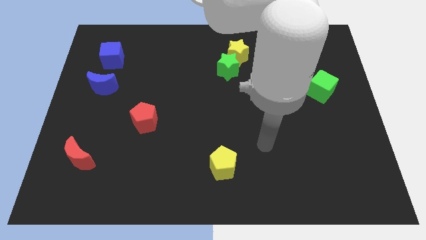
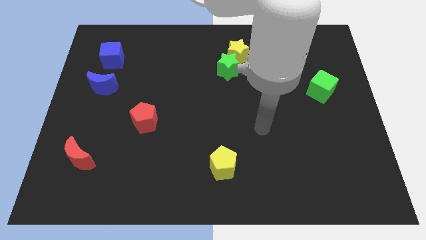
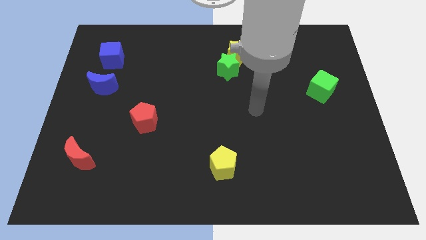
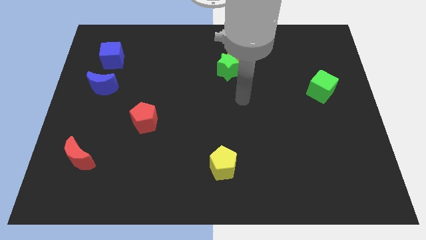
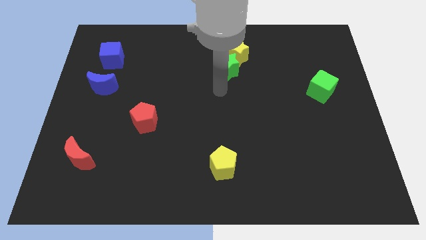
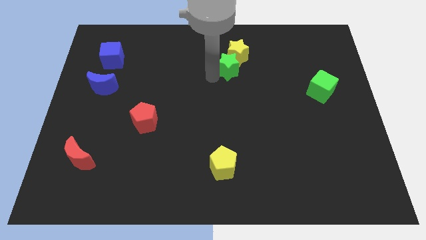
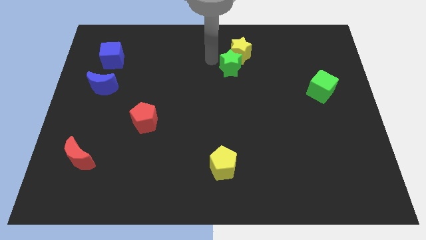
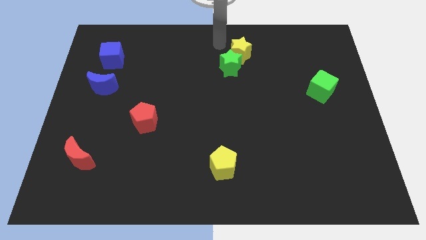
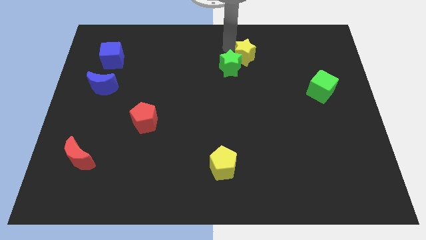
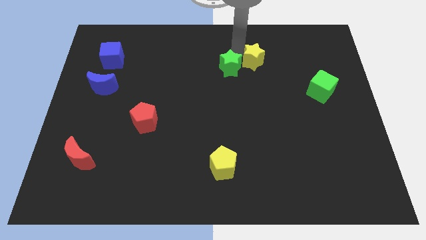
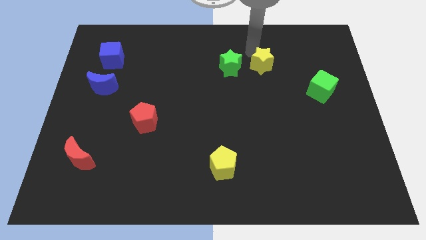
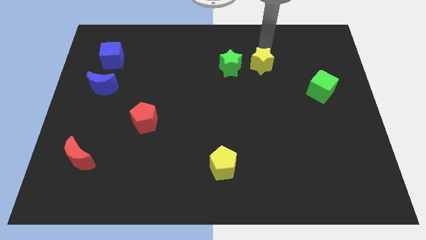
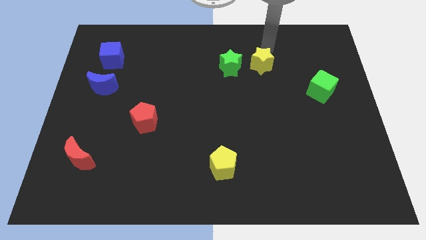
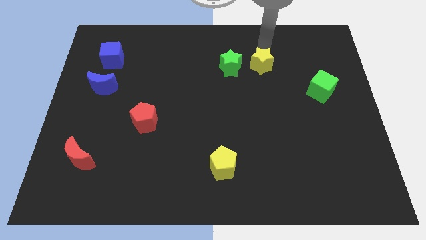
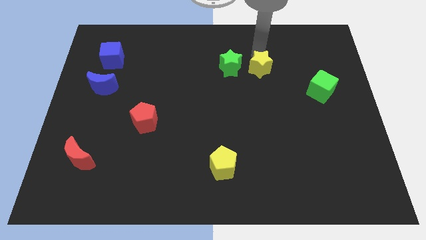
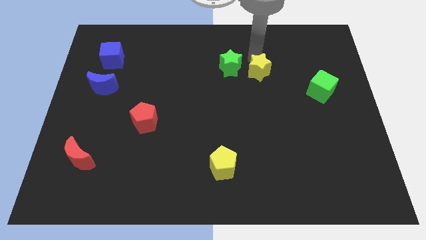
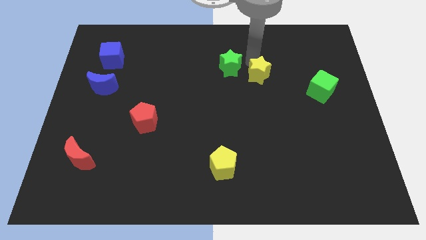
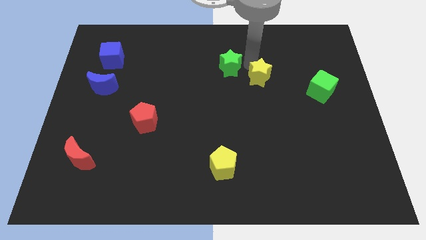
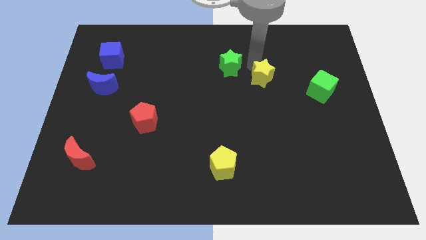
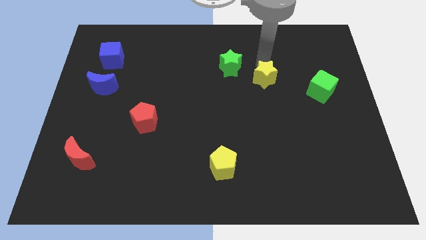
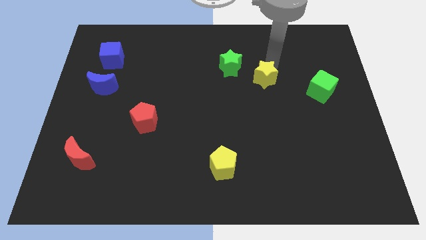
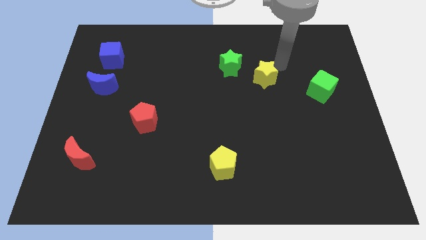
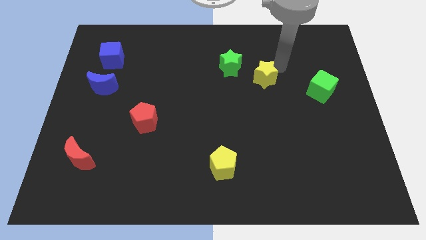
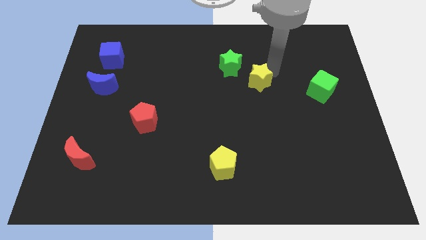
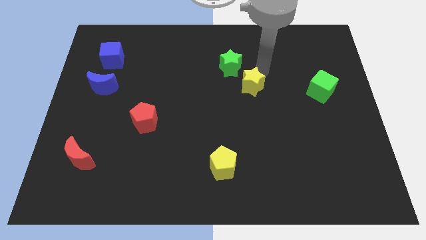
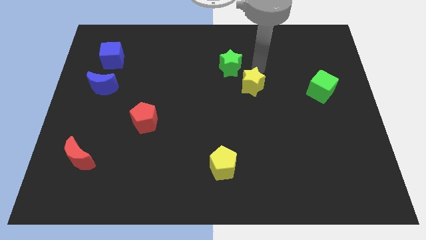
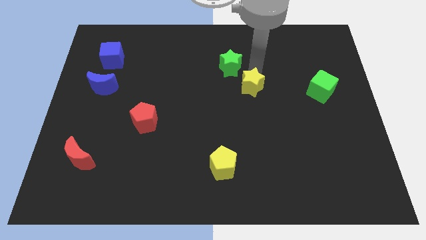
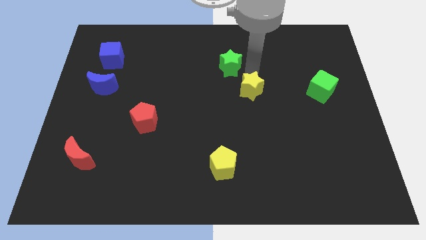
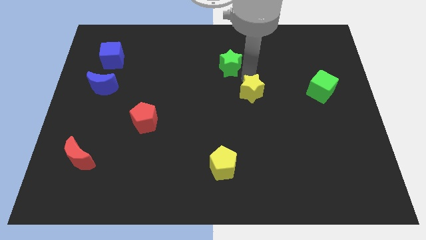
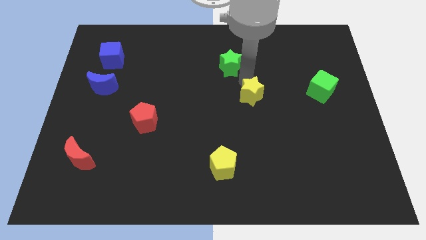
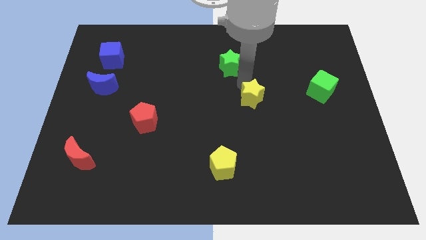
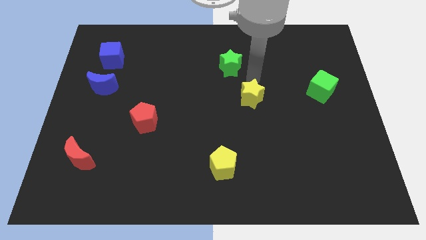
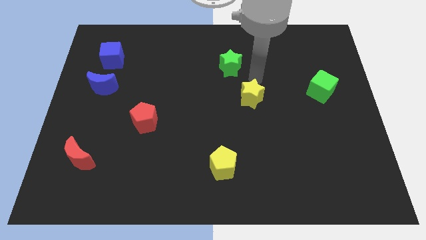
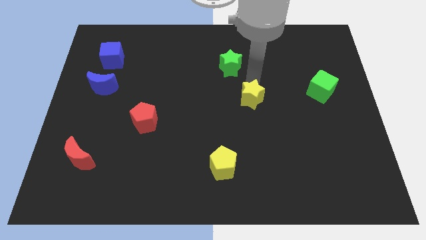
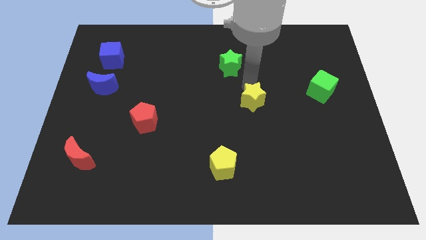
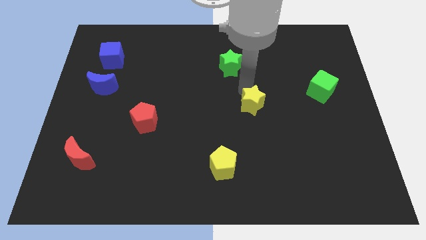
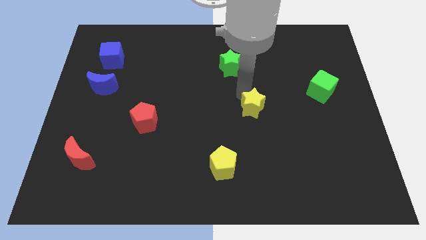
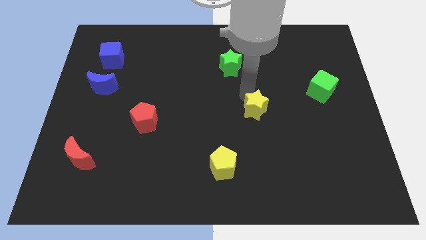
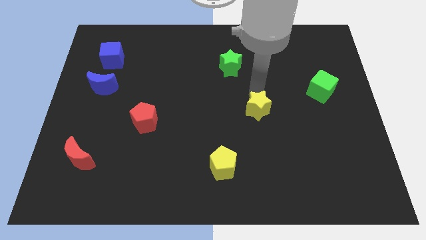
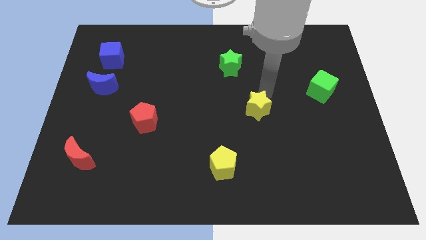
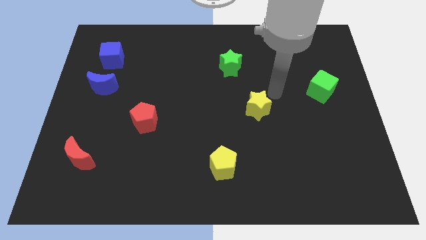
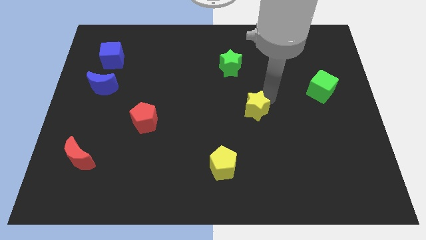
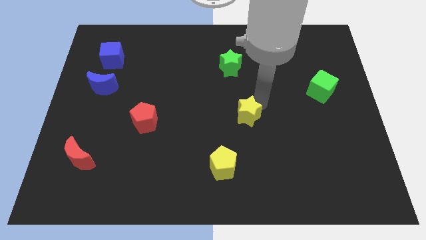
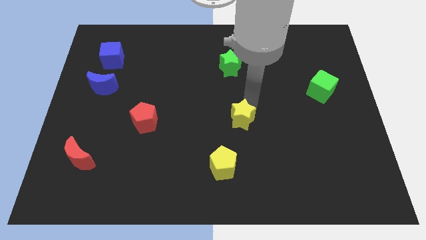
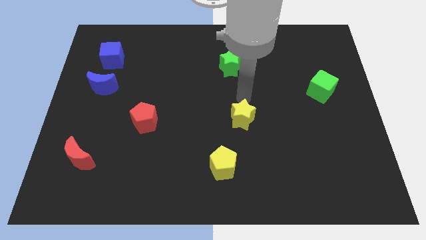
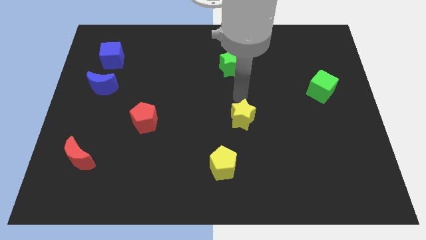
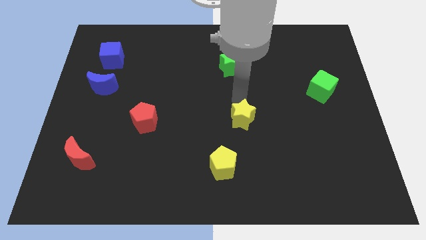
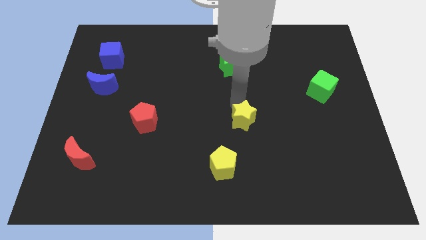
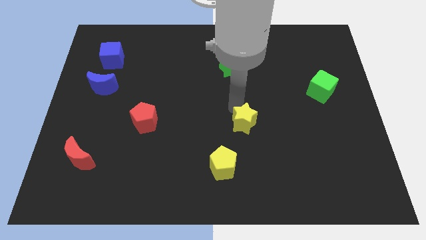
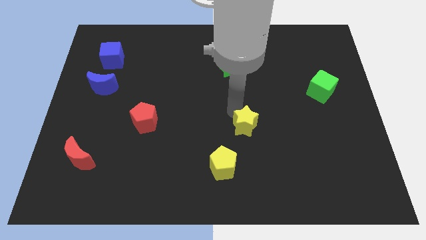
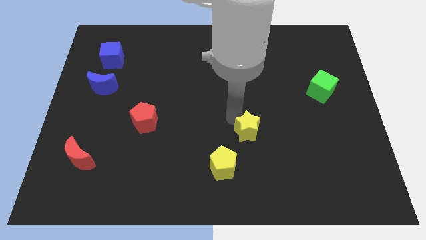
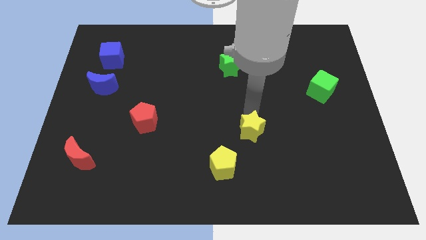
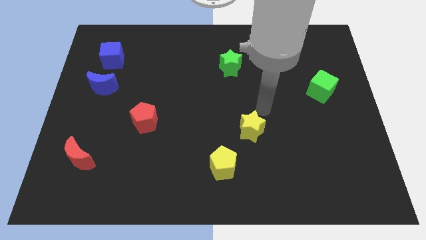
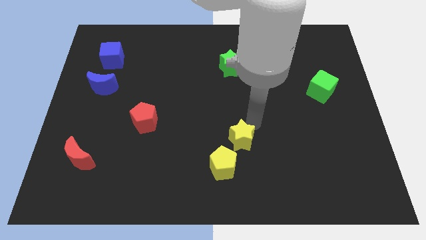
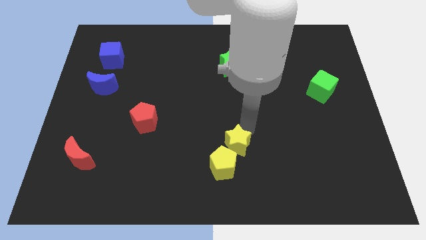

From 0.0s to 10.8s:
put the yellow star towards the yellow pentagon

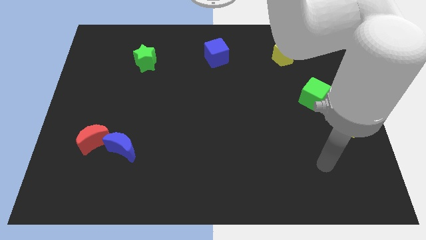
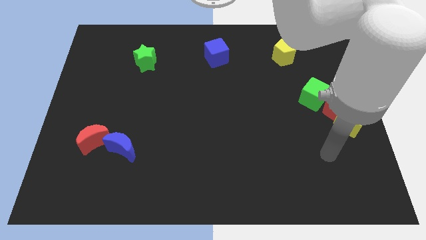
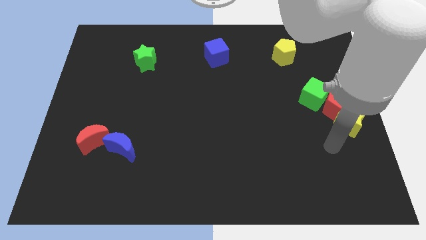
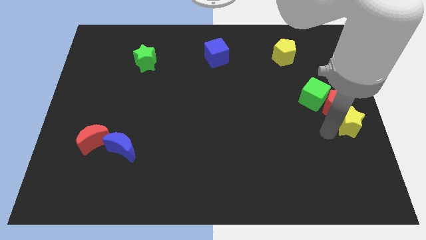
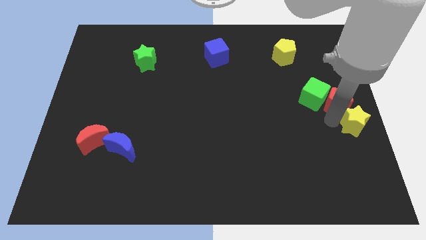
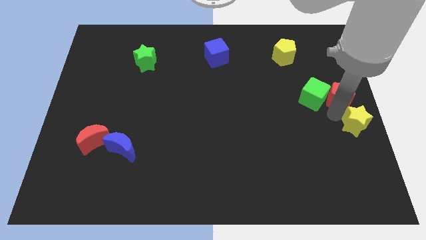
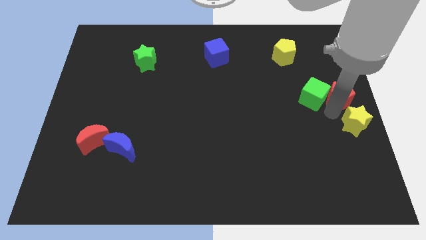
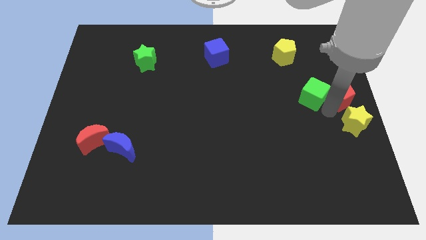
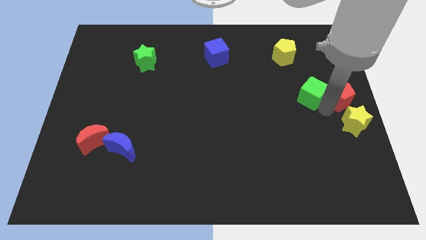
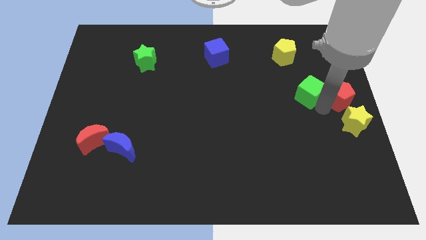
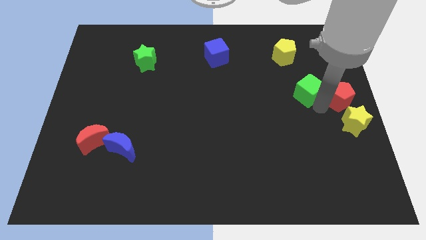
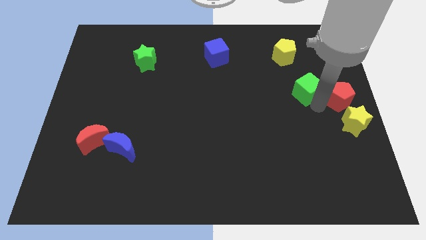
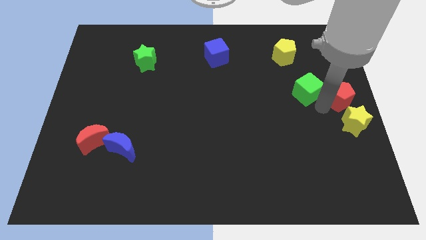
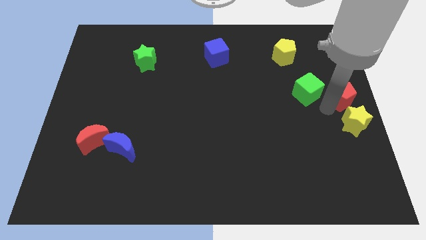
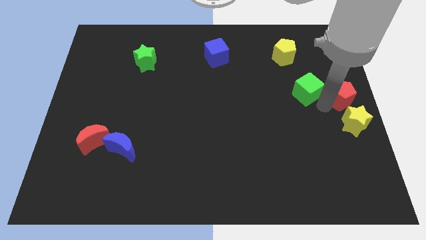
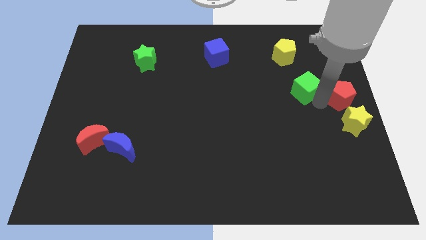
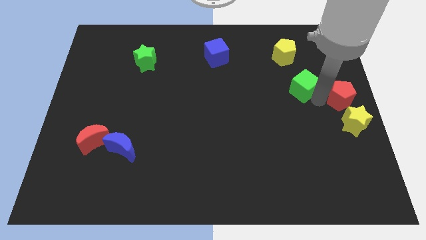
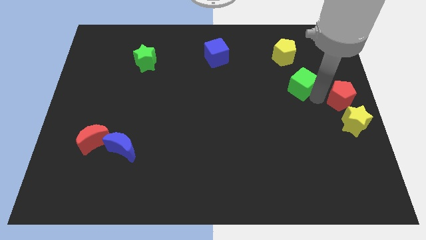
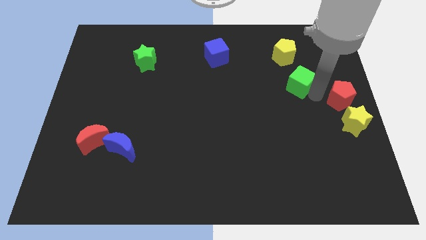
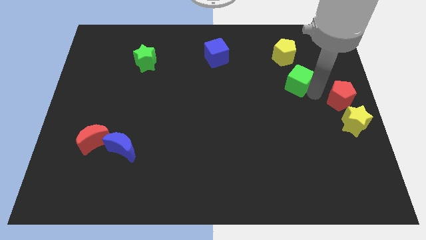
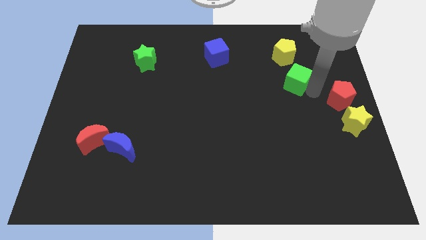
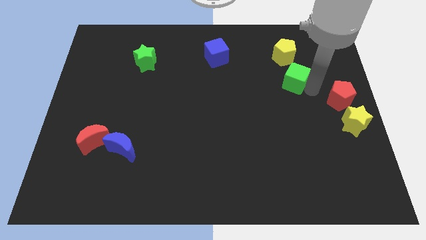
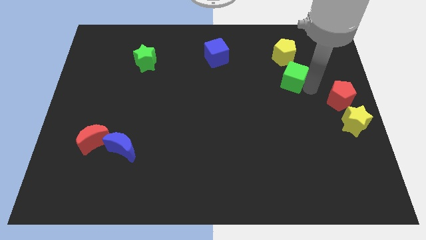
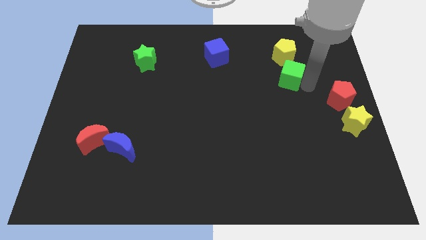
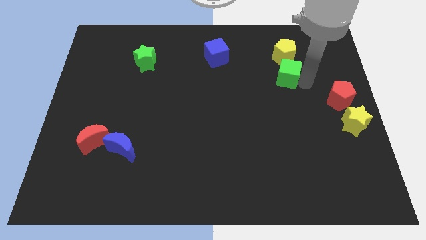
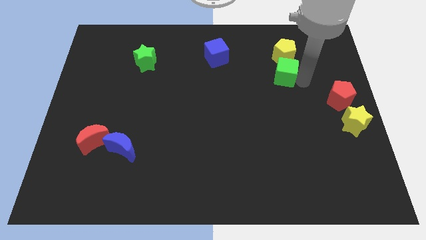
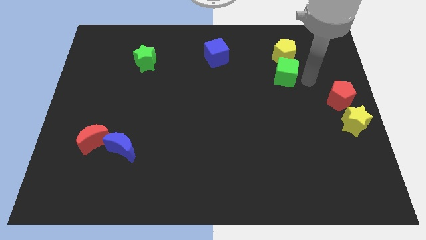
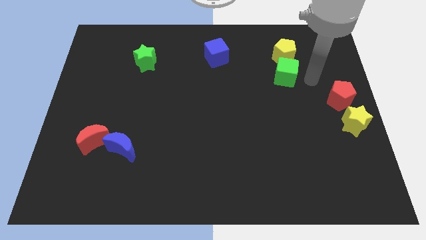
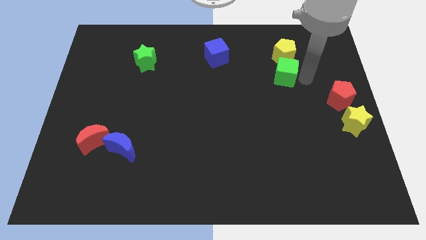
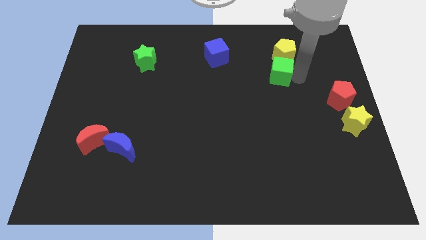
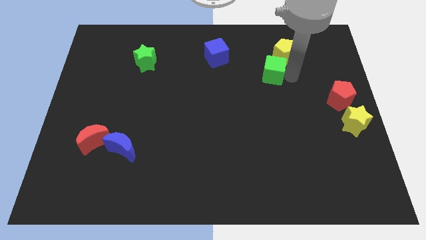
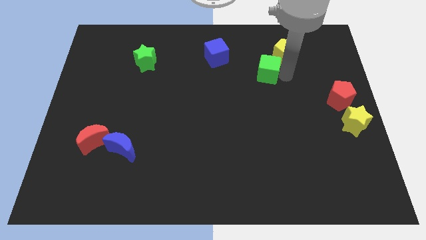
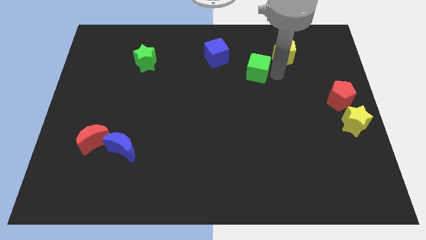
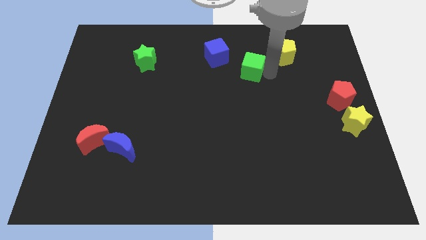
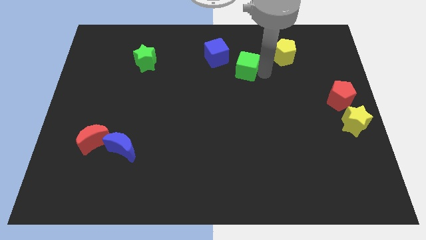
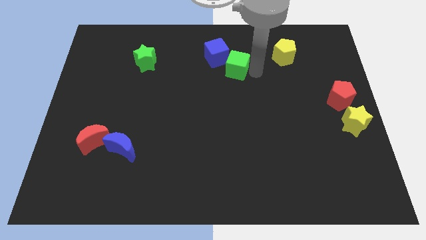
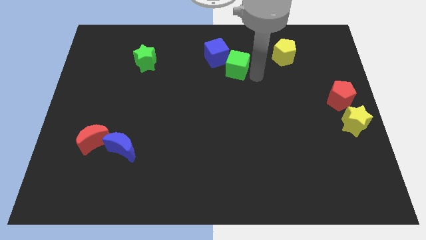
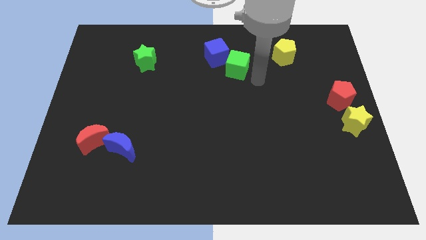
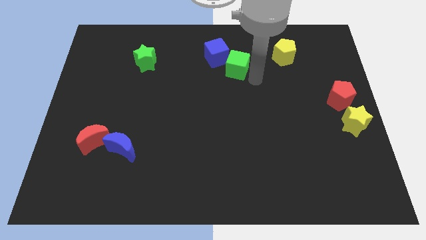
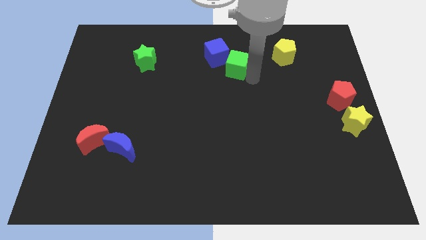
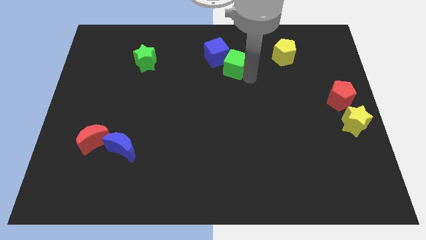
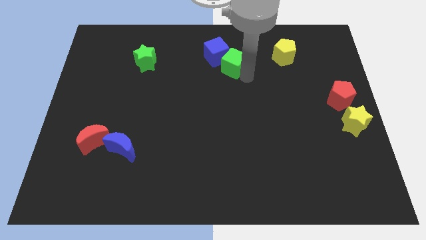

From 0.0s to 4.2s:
slide the green cube close to the blue cube
